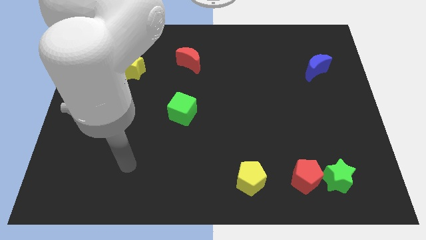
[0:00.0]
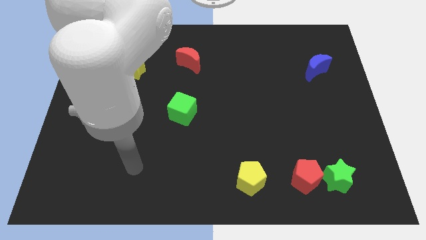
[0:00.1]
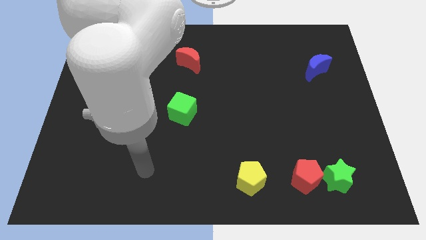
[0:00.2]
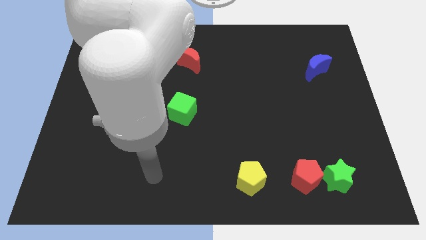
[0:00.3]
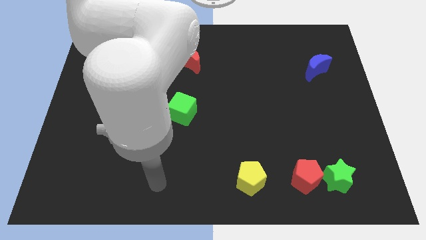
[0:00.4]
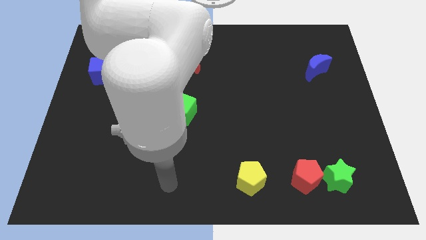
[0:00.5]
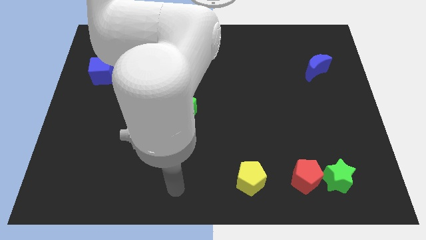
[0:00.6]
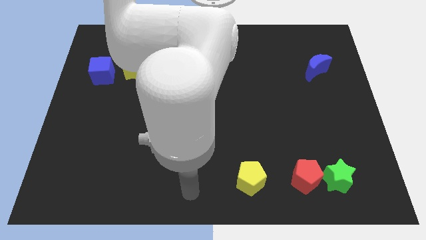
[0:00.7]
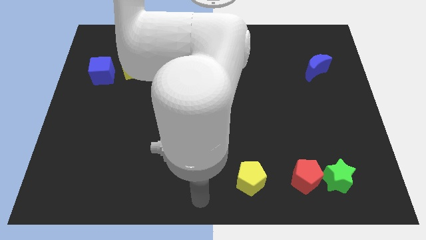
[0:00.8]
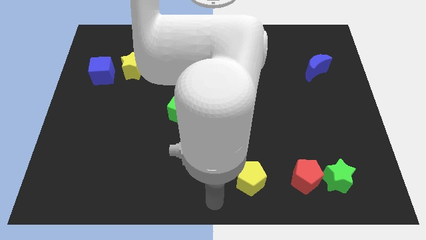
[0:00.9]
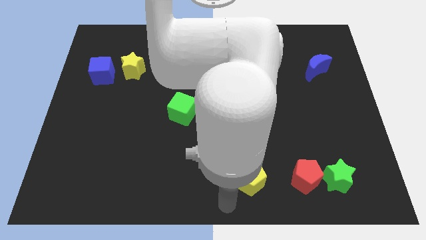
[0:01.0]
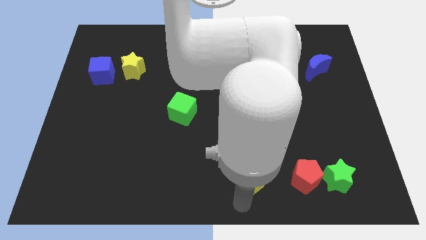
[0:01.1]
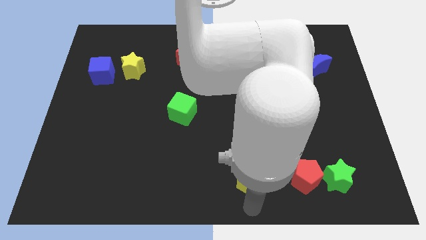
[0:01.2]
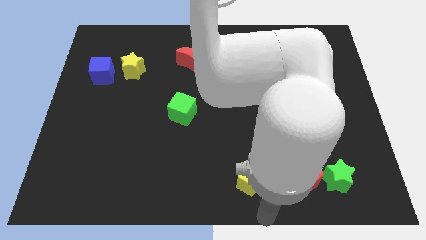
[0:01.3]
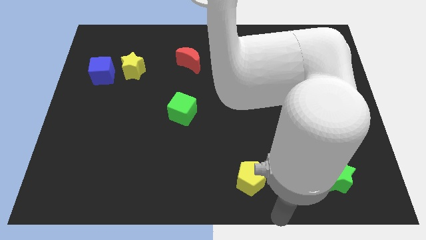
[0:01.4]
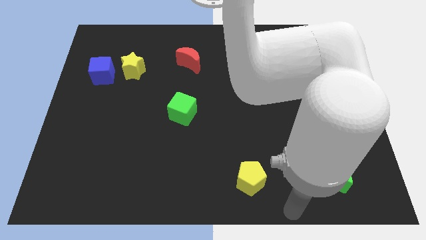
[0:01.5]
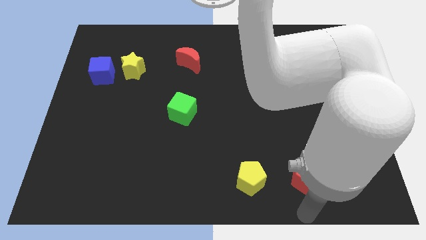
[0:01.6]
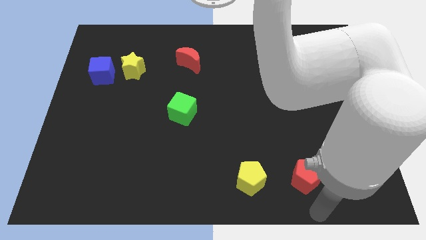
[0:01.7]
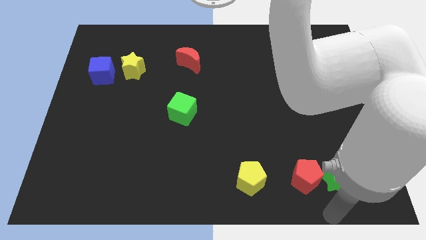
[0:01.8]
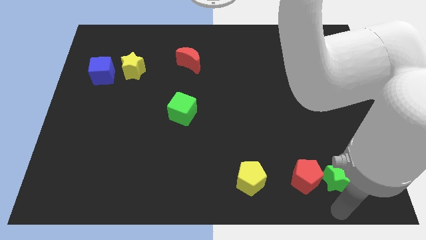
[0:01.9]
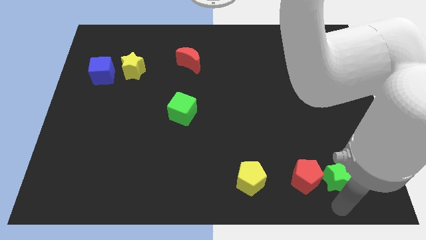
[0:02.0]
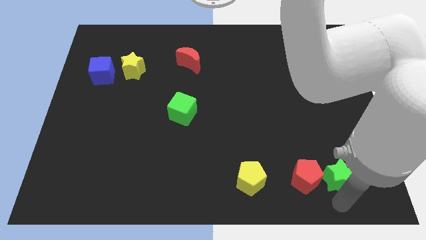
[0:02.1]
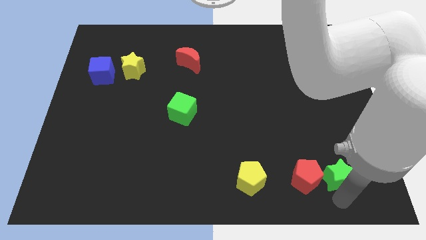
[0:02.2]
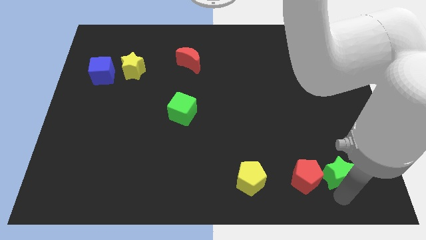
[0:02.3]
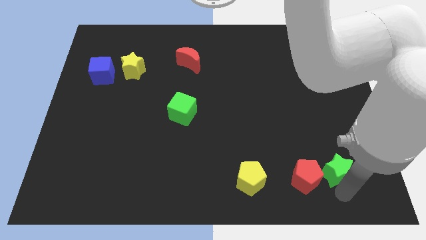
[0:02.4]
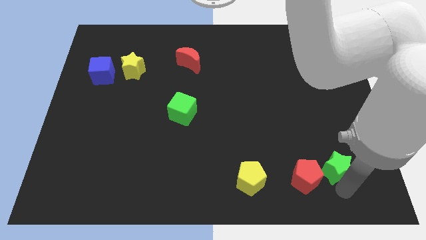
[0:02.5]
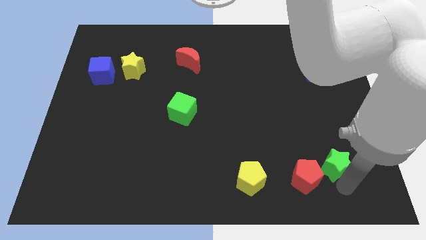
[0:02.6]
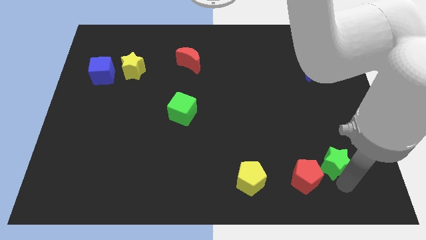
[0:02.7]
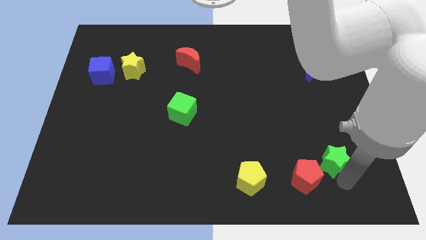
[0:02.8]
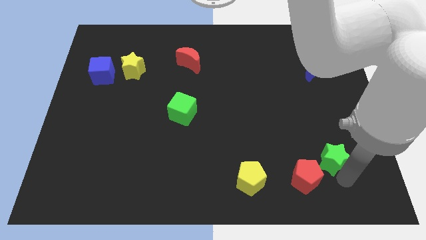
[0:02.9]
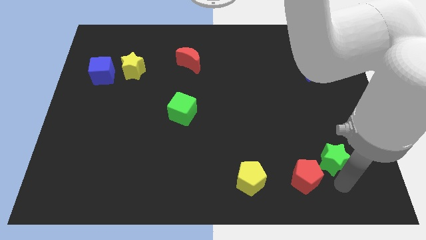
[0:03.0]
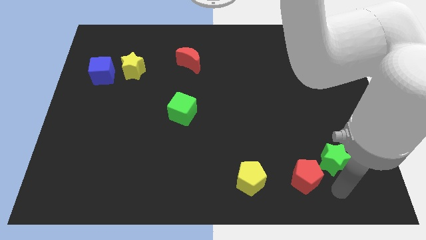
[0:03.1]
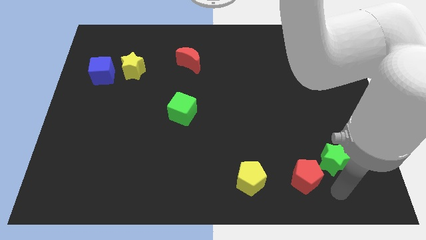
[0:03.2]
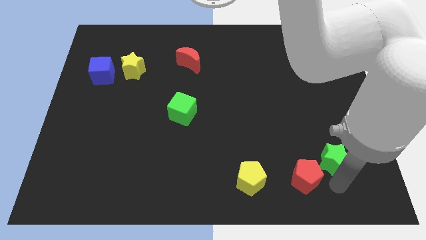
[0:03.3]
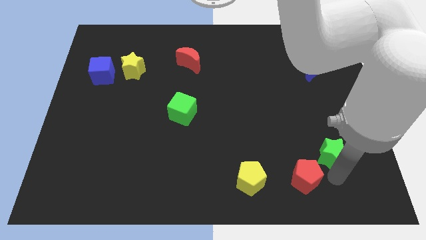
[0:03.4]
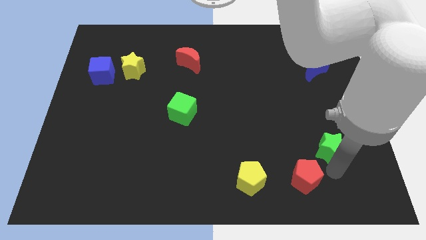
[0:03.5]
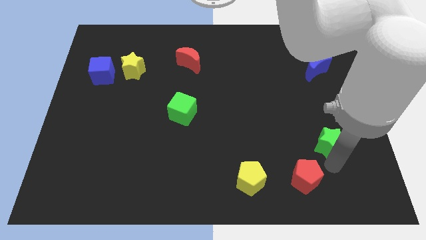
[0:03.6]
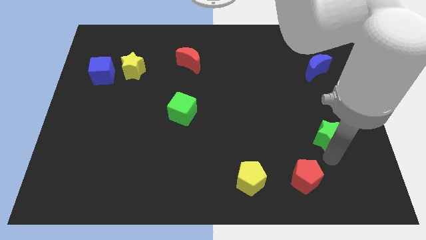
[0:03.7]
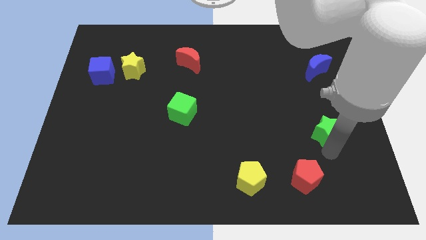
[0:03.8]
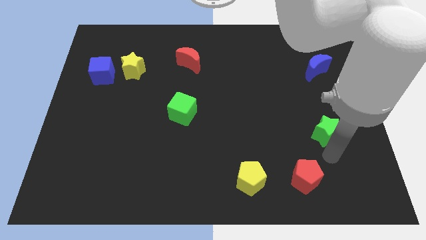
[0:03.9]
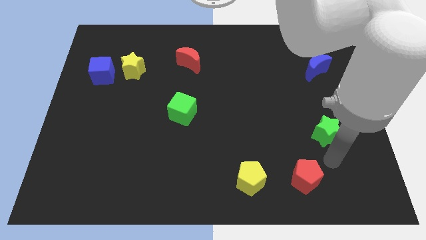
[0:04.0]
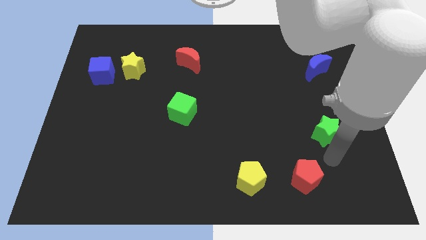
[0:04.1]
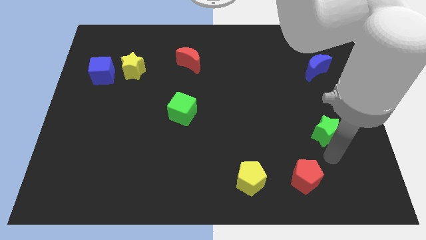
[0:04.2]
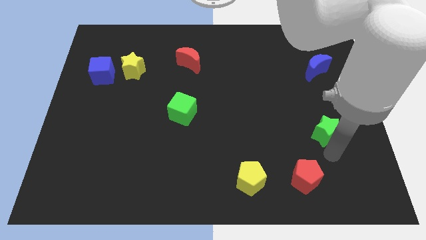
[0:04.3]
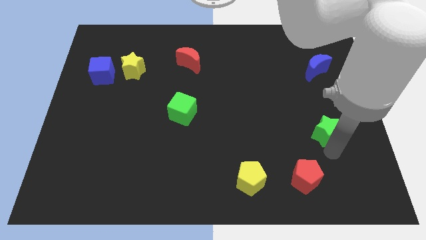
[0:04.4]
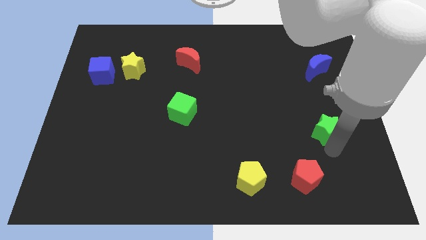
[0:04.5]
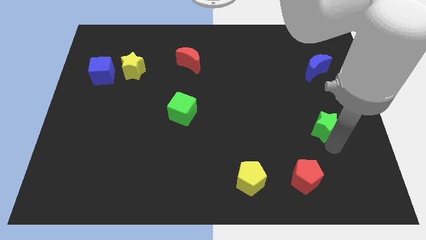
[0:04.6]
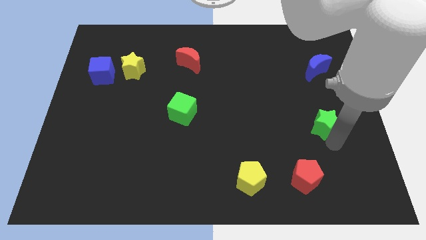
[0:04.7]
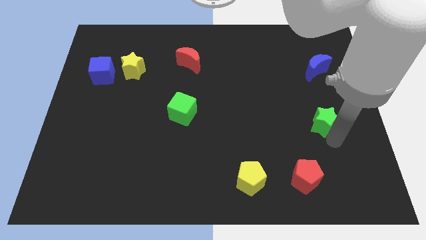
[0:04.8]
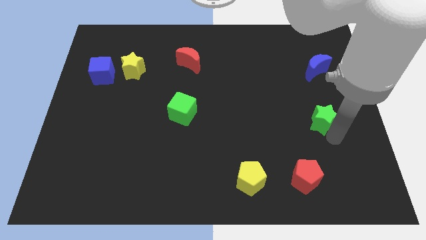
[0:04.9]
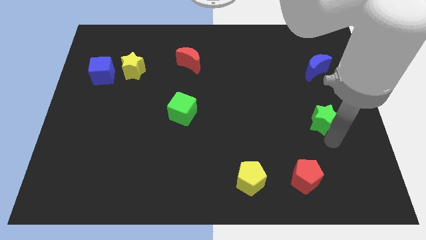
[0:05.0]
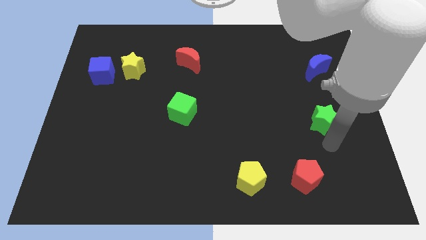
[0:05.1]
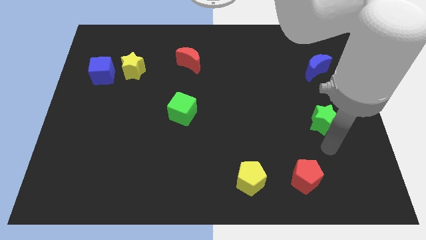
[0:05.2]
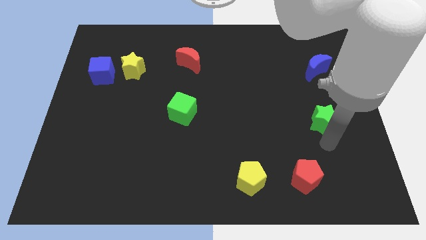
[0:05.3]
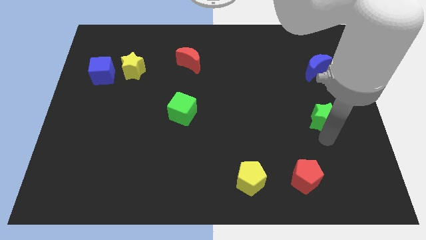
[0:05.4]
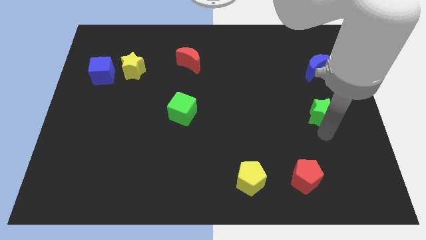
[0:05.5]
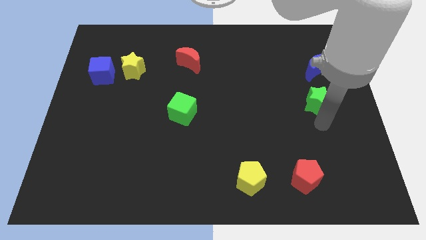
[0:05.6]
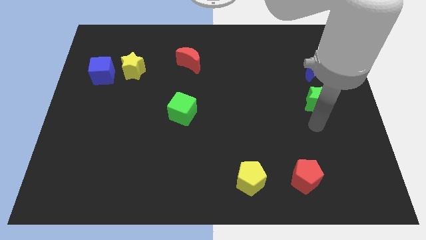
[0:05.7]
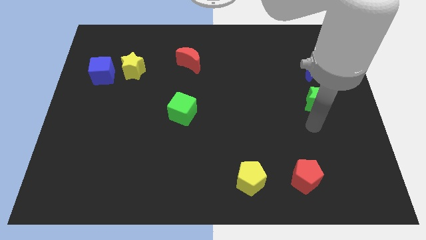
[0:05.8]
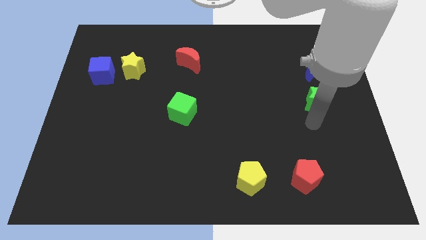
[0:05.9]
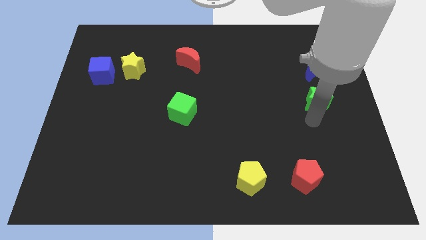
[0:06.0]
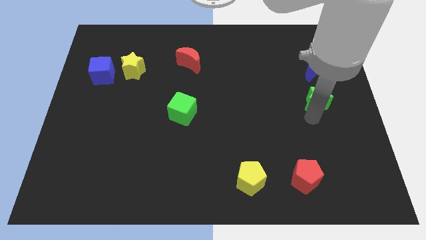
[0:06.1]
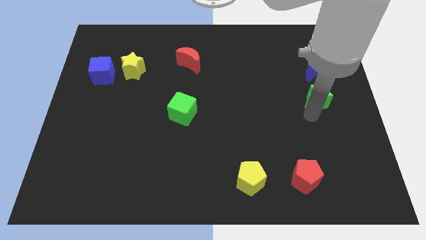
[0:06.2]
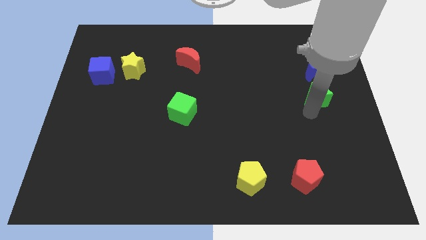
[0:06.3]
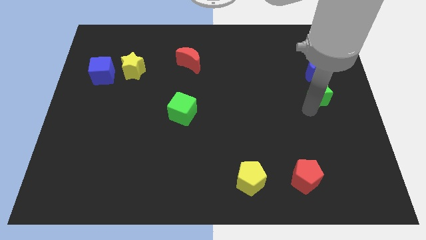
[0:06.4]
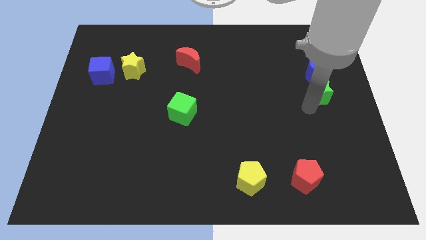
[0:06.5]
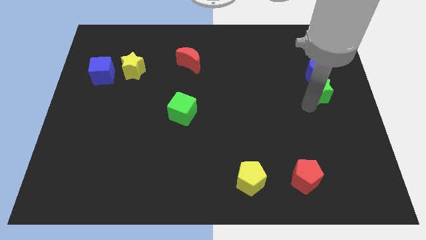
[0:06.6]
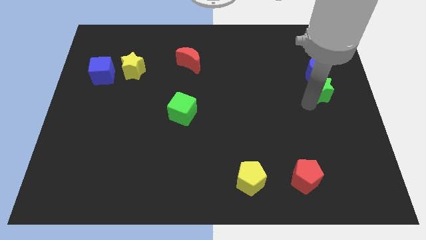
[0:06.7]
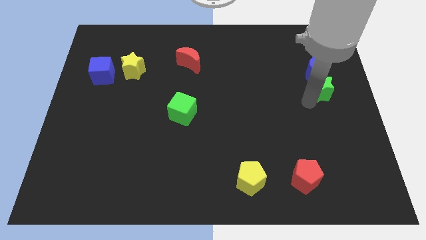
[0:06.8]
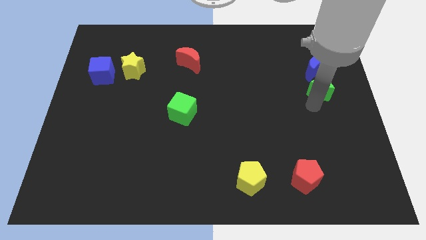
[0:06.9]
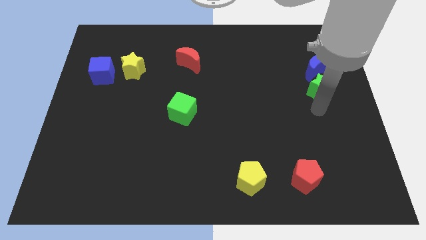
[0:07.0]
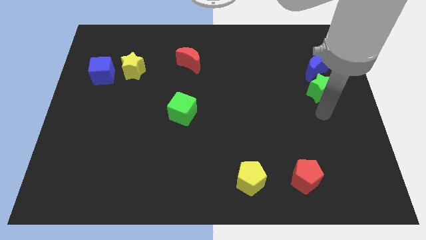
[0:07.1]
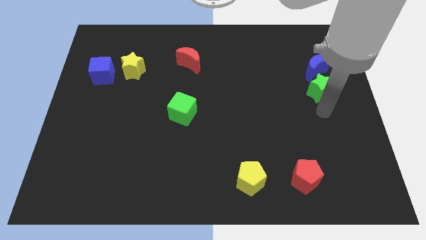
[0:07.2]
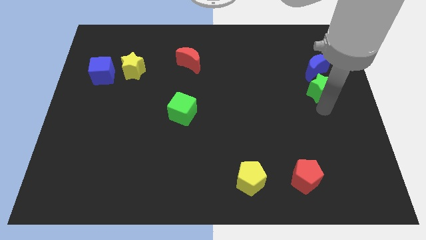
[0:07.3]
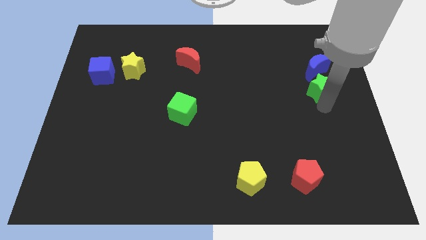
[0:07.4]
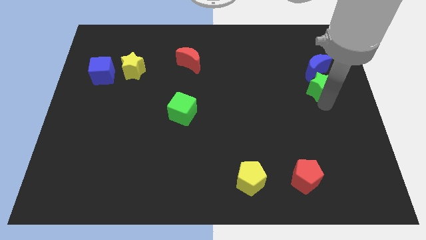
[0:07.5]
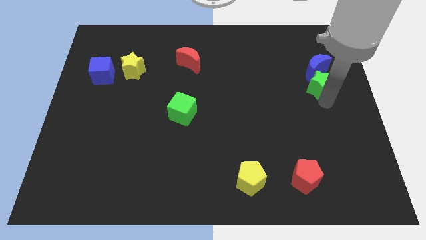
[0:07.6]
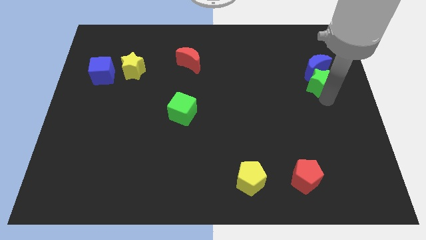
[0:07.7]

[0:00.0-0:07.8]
push the green star close to the blue moon
